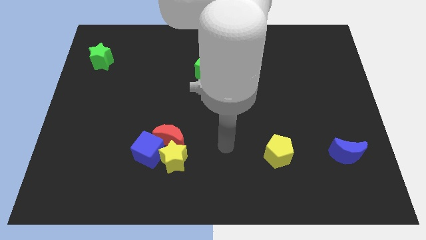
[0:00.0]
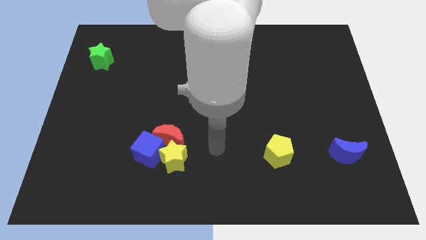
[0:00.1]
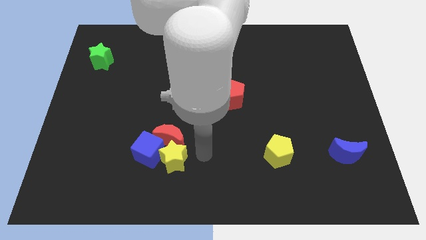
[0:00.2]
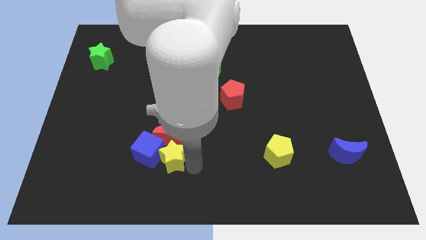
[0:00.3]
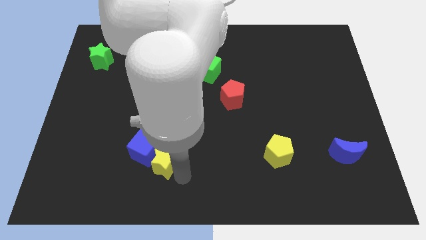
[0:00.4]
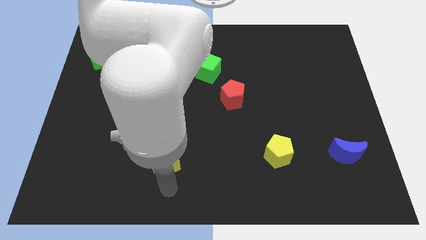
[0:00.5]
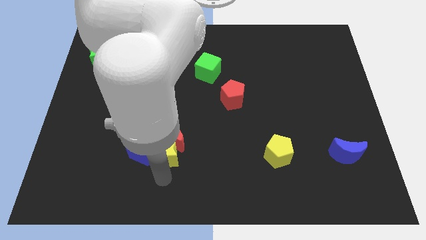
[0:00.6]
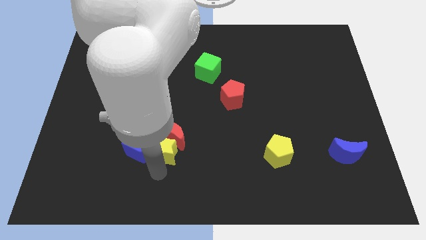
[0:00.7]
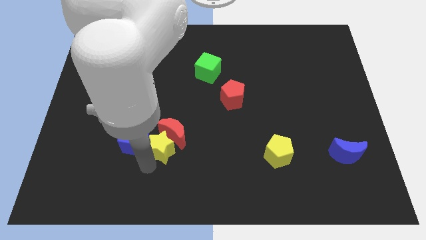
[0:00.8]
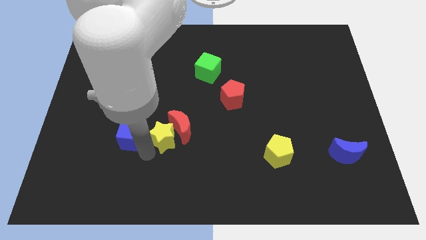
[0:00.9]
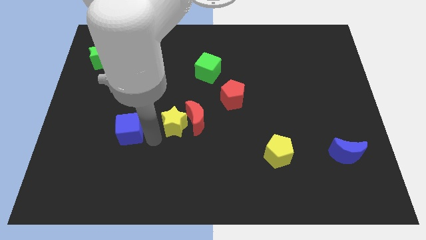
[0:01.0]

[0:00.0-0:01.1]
move the red moon away from the yellow star and blue cube

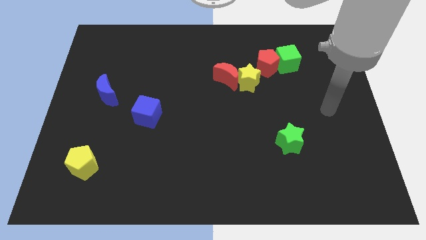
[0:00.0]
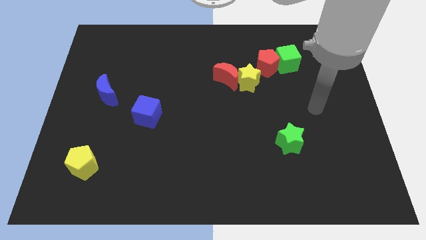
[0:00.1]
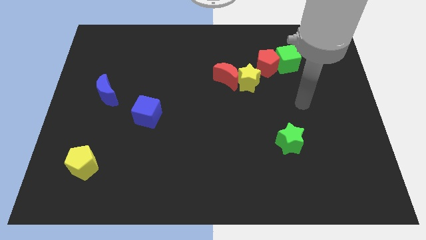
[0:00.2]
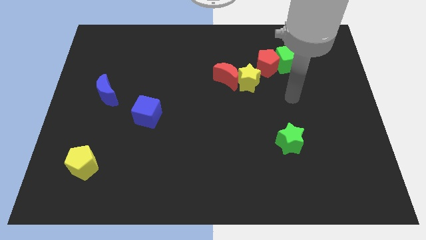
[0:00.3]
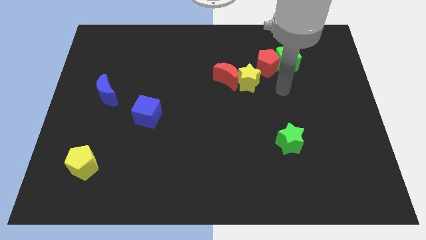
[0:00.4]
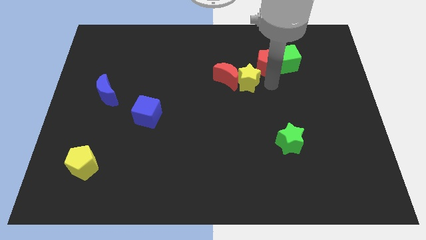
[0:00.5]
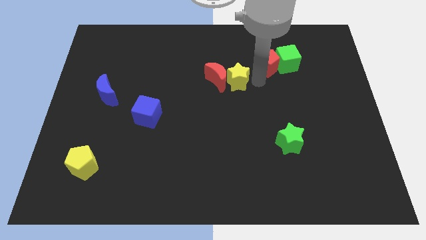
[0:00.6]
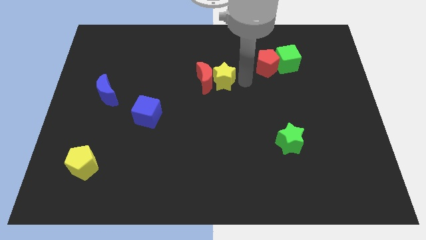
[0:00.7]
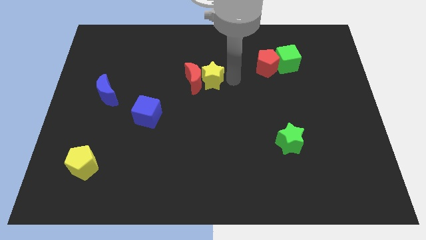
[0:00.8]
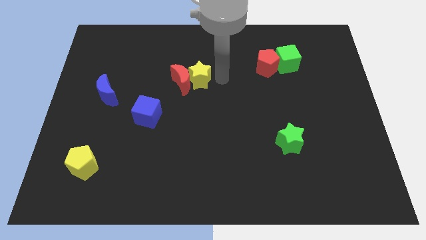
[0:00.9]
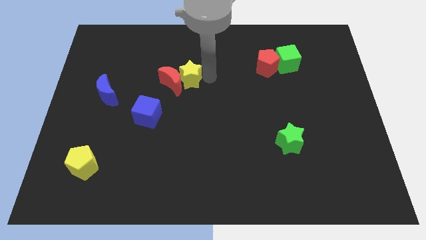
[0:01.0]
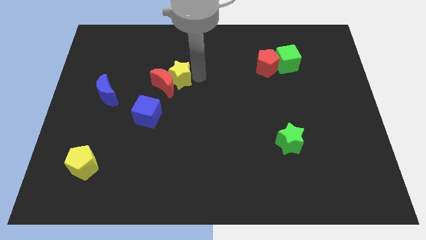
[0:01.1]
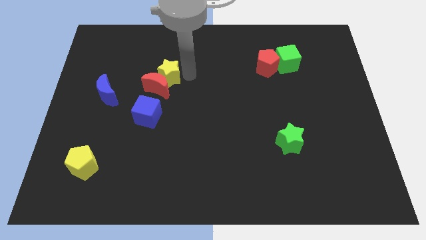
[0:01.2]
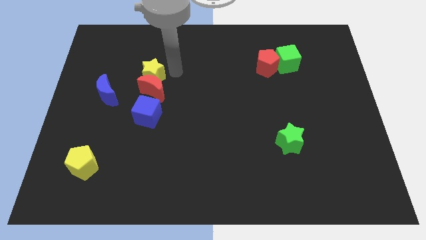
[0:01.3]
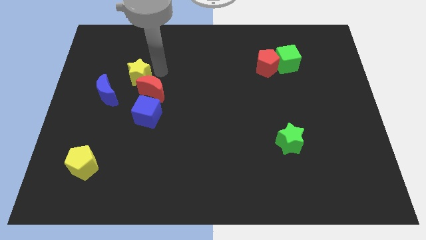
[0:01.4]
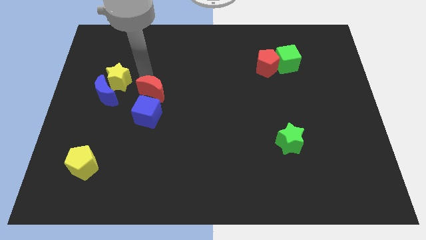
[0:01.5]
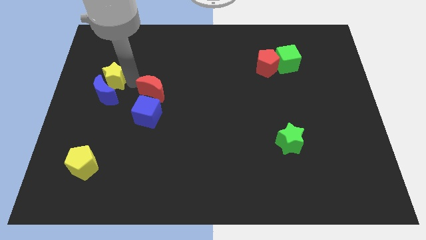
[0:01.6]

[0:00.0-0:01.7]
pull the red moon apart from the yellow star

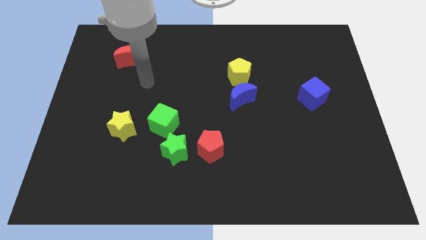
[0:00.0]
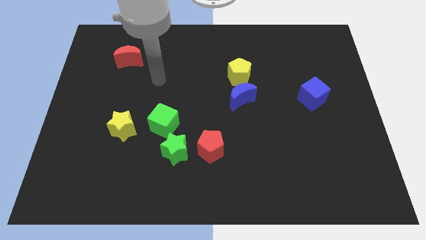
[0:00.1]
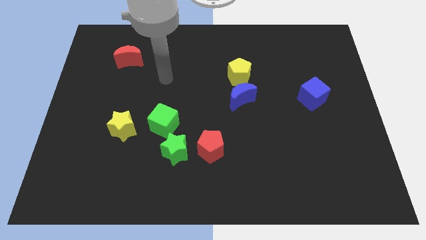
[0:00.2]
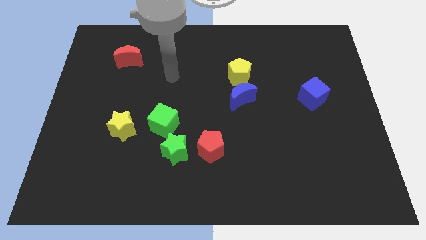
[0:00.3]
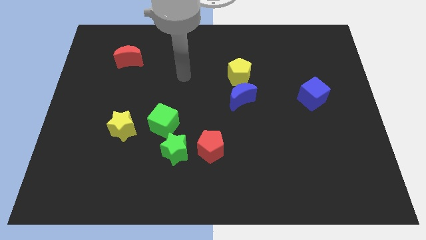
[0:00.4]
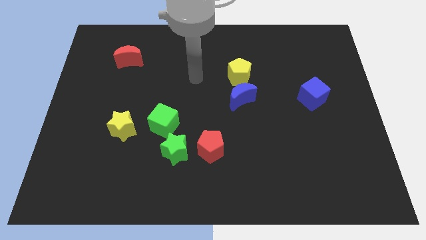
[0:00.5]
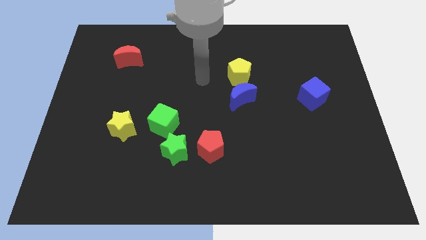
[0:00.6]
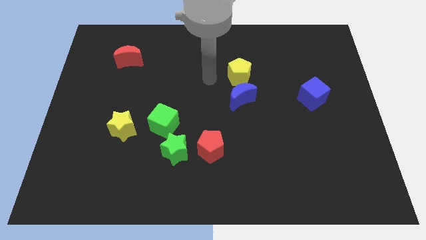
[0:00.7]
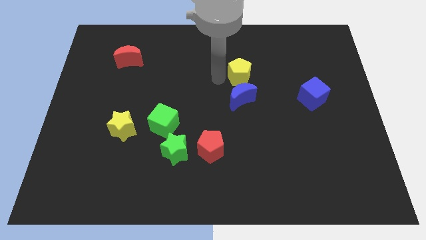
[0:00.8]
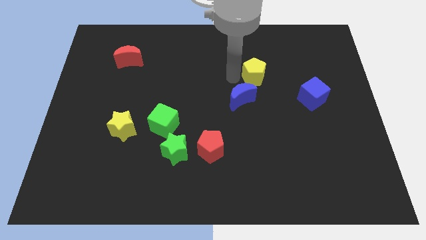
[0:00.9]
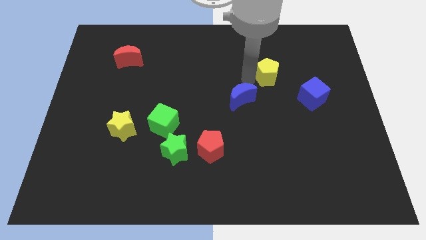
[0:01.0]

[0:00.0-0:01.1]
separate the blue moon from the yellow pentagon

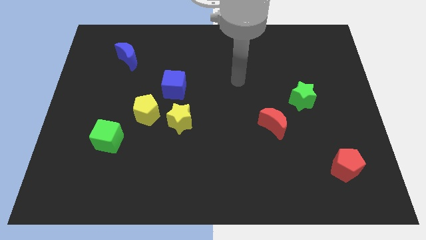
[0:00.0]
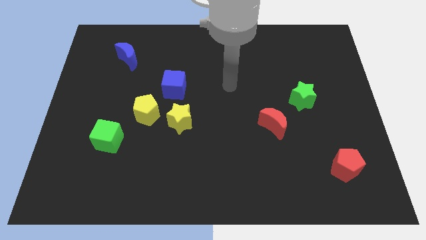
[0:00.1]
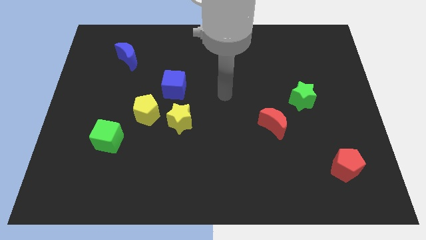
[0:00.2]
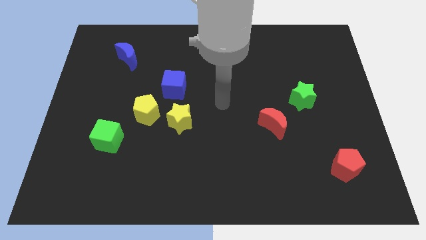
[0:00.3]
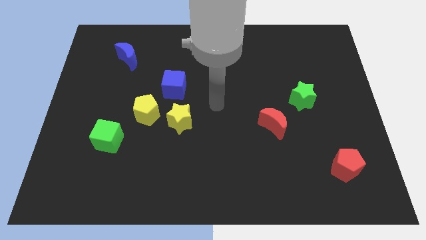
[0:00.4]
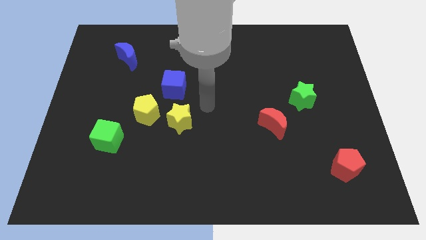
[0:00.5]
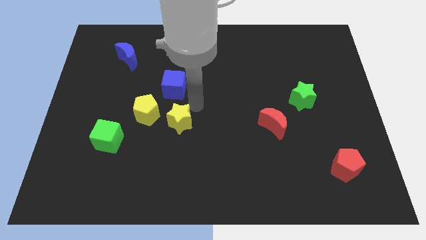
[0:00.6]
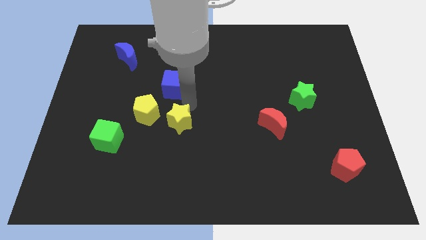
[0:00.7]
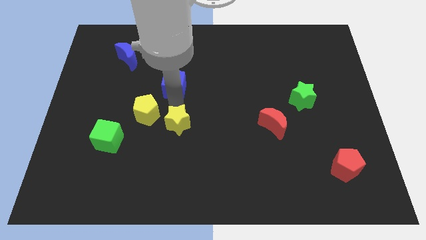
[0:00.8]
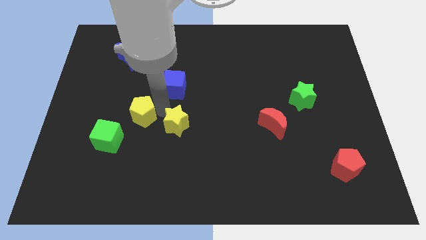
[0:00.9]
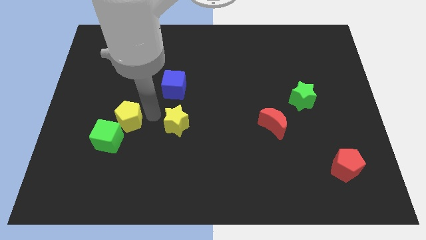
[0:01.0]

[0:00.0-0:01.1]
pull the yellow star apart from the yellow pentagon

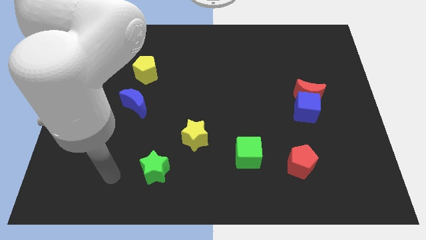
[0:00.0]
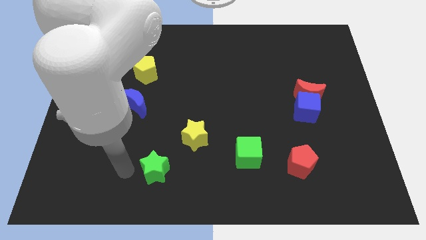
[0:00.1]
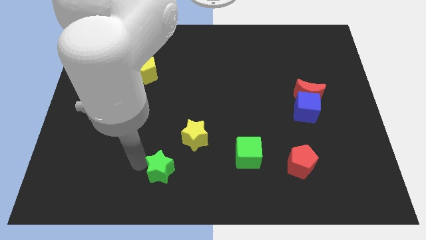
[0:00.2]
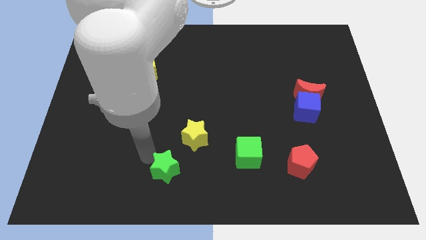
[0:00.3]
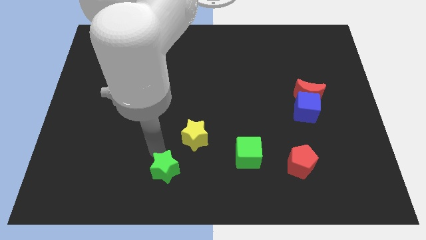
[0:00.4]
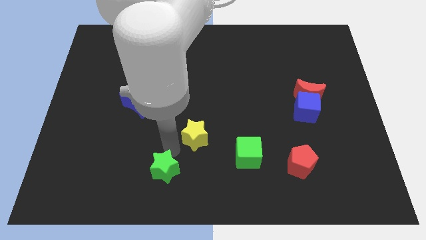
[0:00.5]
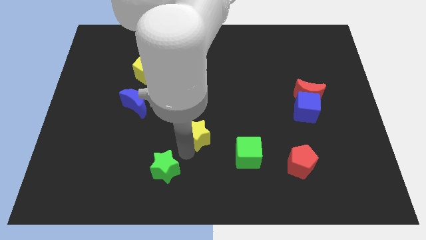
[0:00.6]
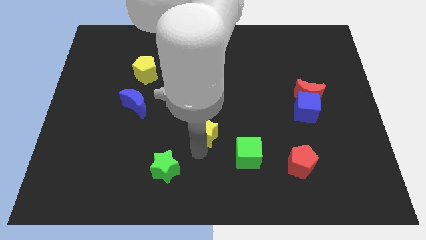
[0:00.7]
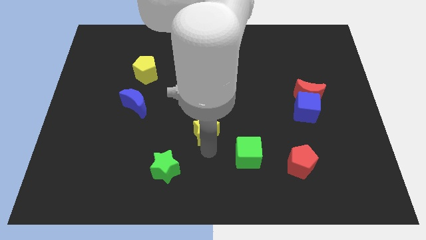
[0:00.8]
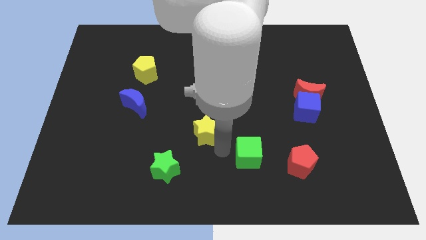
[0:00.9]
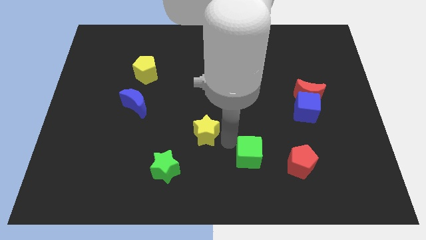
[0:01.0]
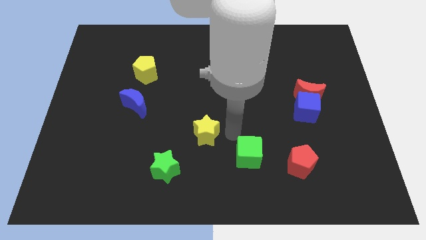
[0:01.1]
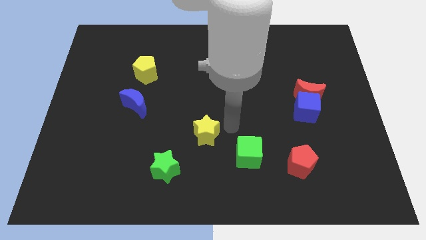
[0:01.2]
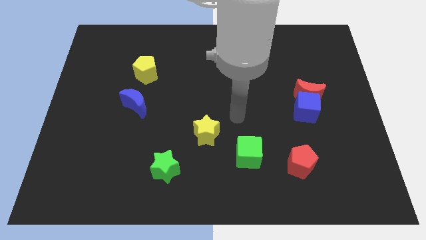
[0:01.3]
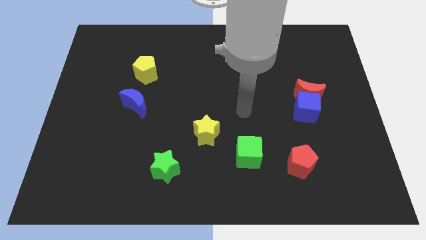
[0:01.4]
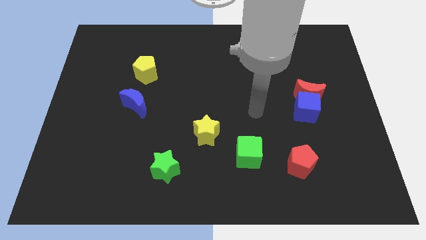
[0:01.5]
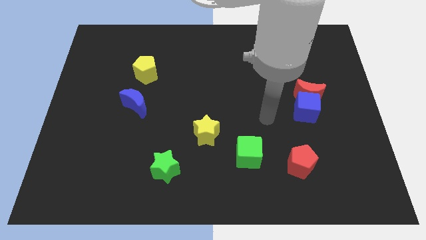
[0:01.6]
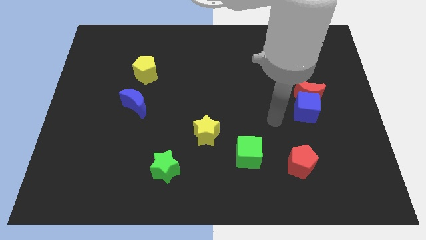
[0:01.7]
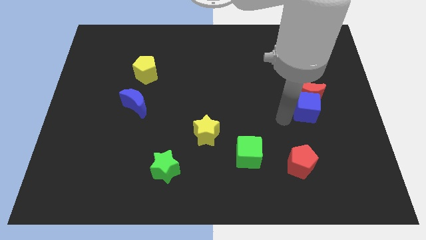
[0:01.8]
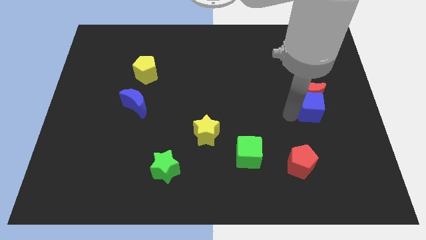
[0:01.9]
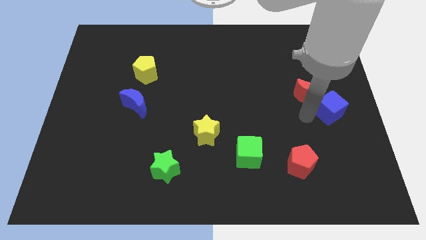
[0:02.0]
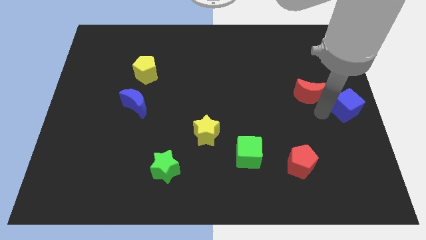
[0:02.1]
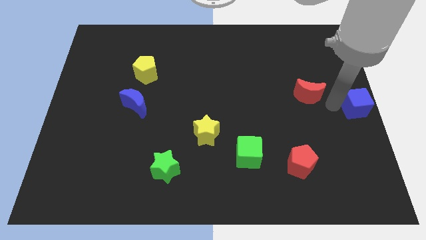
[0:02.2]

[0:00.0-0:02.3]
move the red moon away from the blue cube

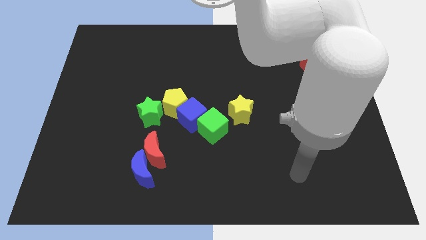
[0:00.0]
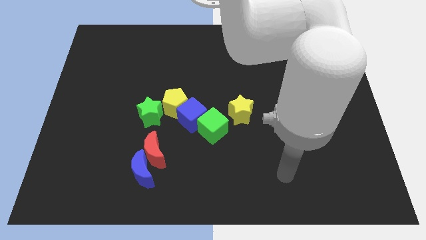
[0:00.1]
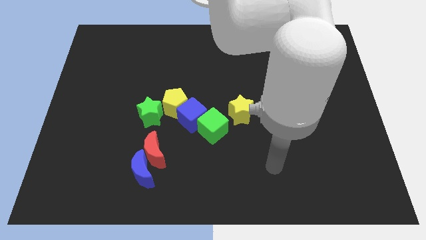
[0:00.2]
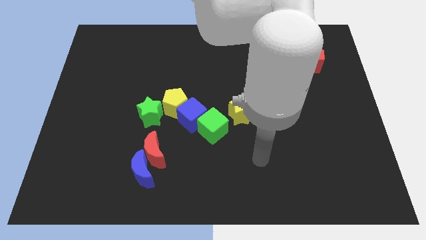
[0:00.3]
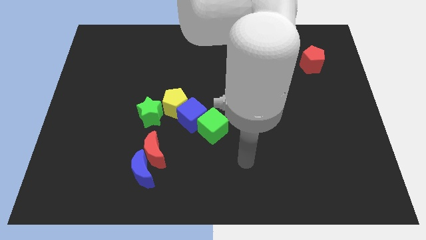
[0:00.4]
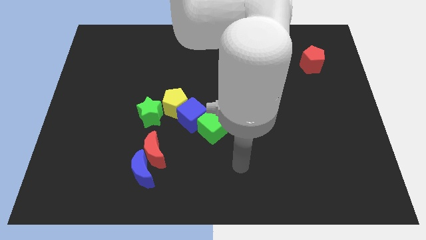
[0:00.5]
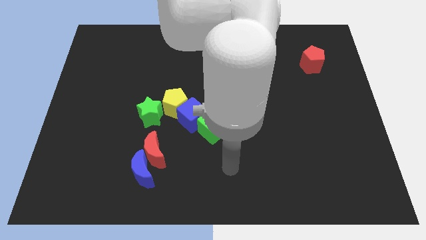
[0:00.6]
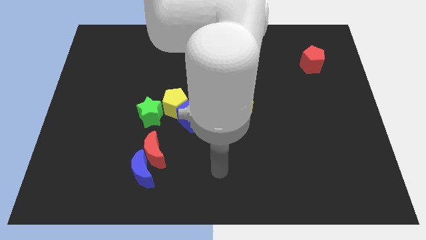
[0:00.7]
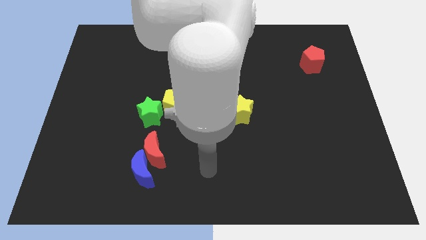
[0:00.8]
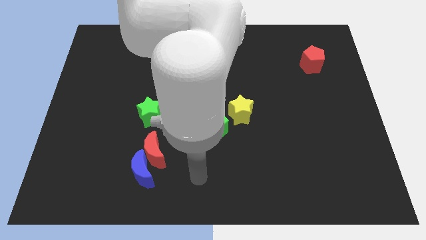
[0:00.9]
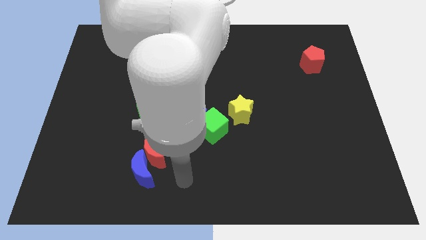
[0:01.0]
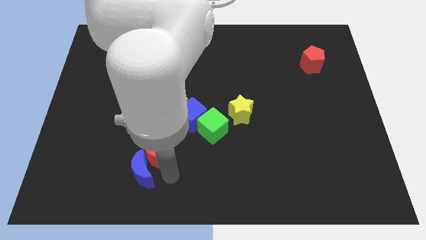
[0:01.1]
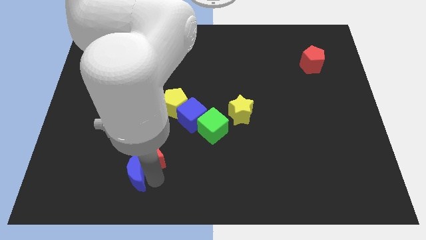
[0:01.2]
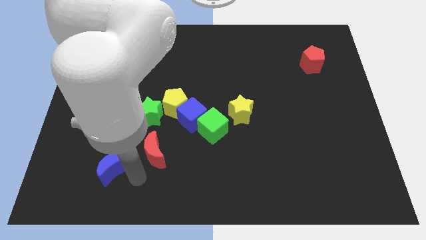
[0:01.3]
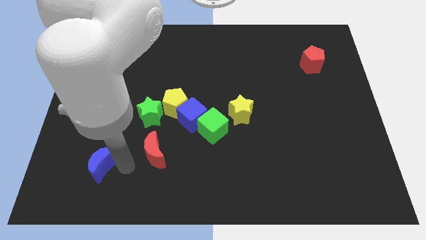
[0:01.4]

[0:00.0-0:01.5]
pull the red moon apart from the blue moon

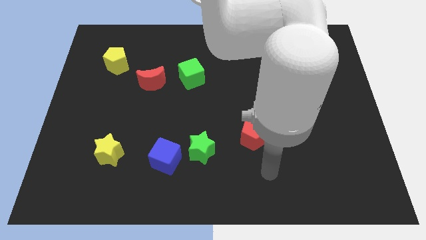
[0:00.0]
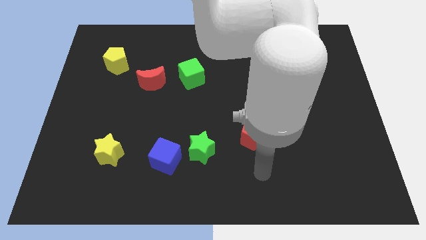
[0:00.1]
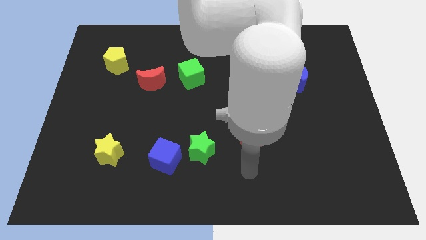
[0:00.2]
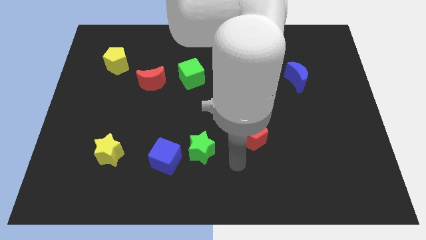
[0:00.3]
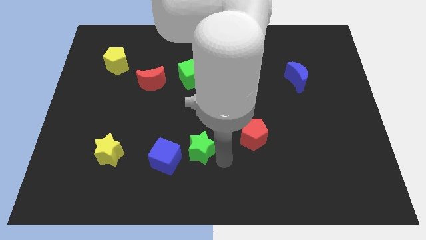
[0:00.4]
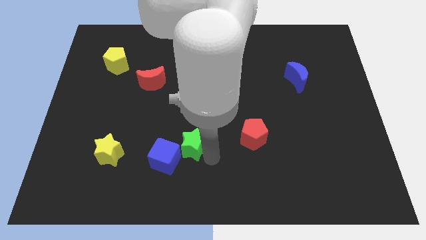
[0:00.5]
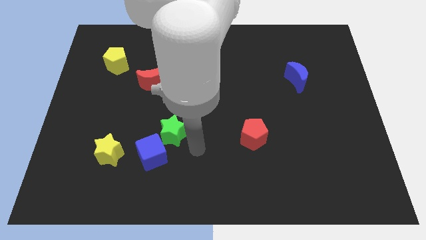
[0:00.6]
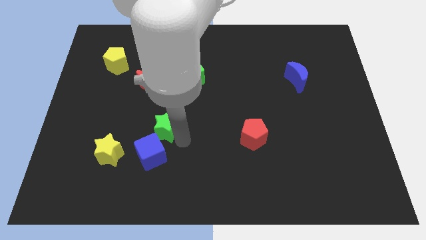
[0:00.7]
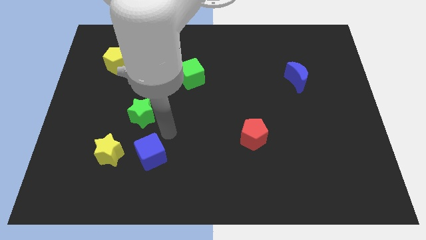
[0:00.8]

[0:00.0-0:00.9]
move the blue cube away from the green star
